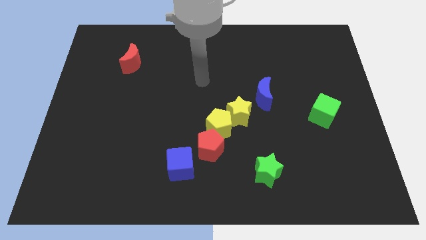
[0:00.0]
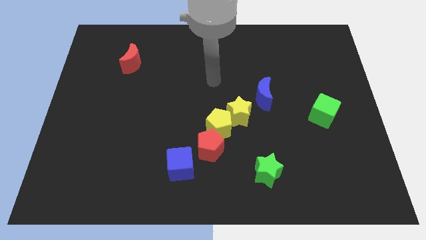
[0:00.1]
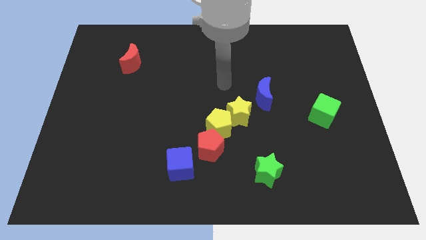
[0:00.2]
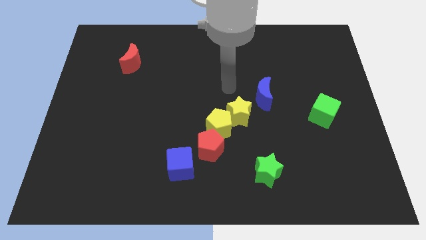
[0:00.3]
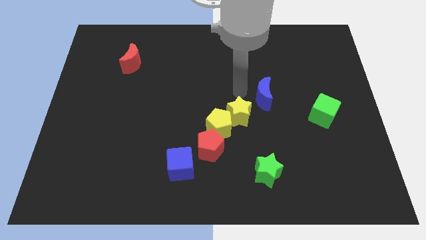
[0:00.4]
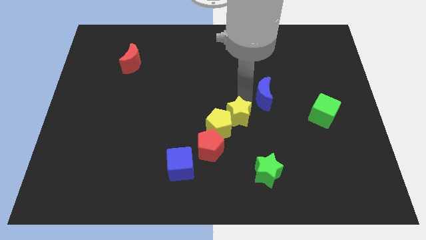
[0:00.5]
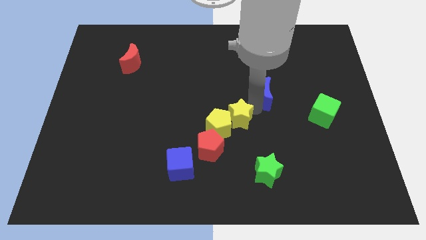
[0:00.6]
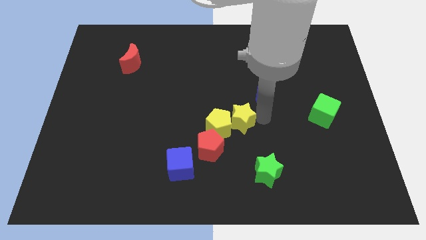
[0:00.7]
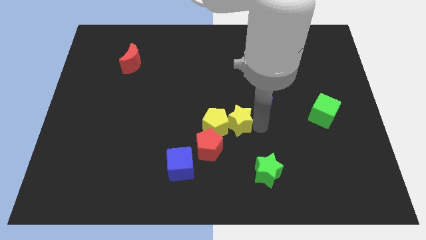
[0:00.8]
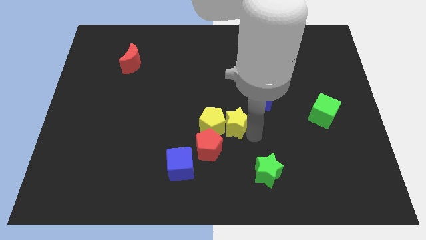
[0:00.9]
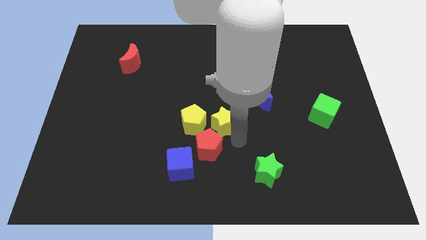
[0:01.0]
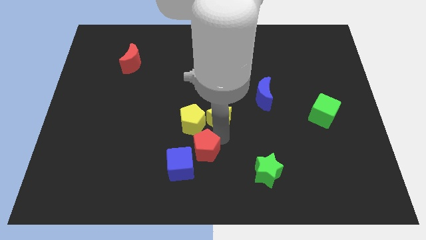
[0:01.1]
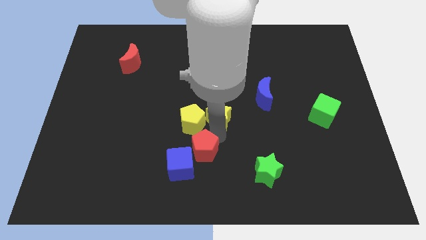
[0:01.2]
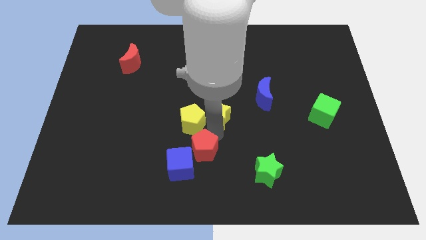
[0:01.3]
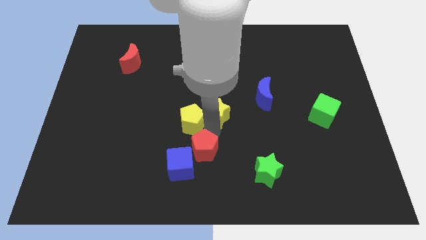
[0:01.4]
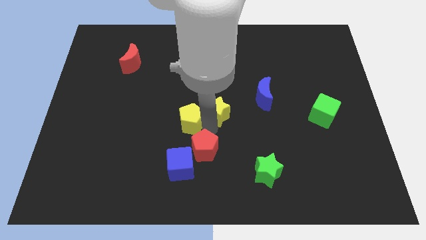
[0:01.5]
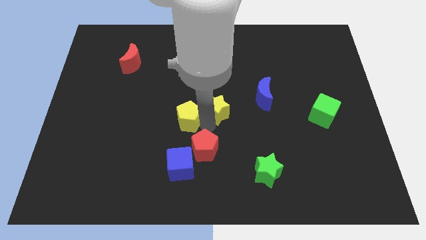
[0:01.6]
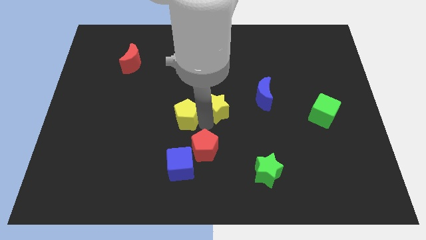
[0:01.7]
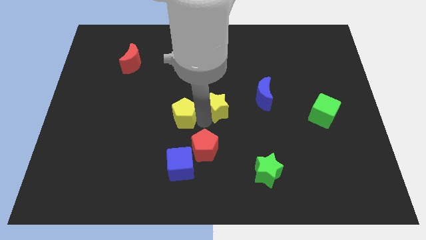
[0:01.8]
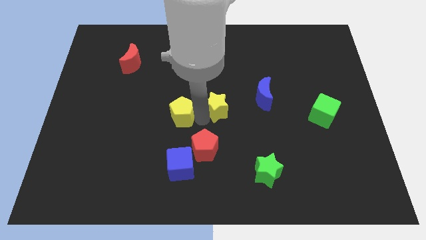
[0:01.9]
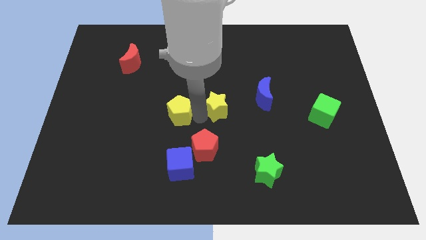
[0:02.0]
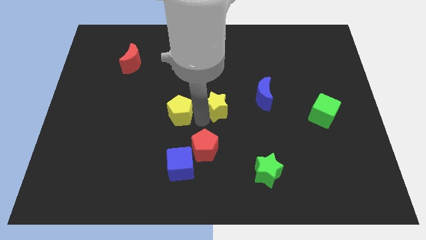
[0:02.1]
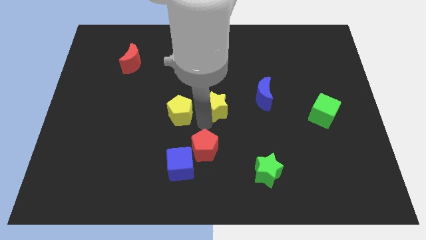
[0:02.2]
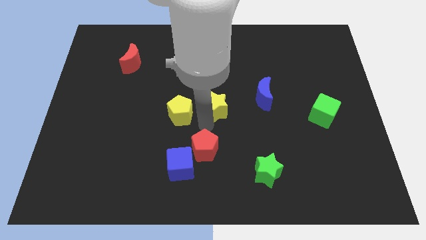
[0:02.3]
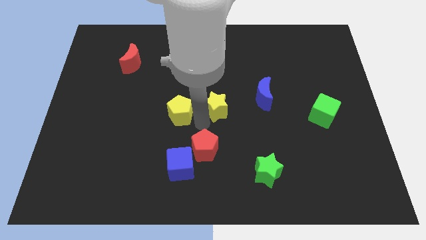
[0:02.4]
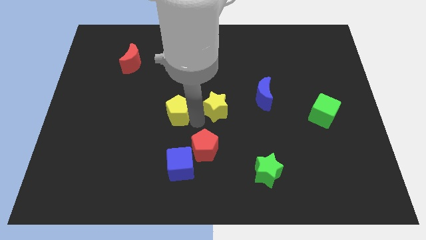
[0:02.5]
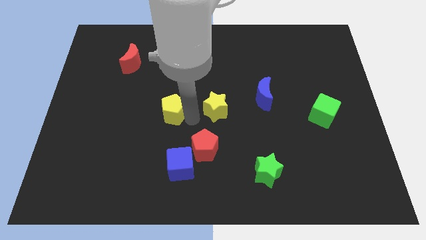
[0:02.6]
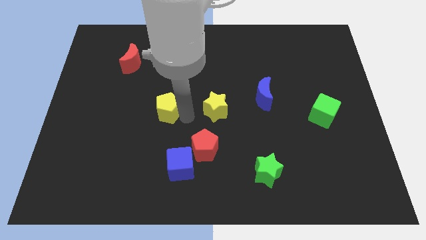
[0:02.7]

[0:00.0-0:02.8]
move the yellow pentagon away from the yellow star and red pentagon

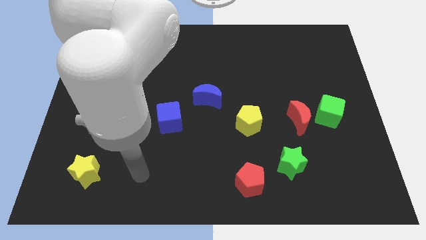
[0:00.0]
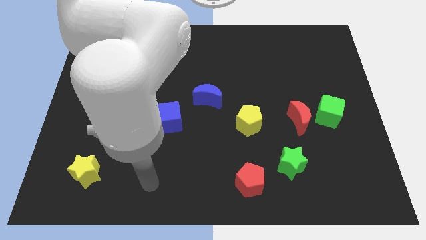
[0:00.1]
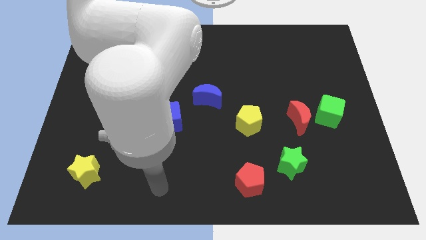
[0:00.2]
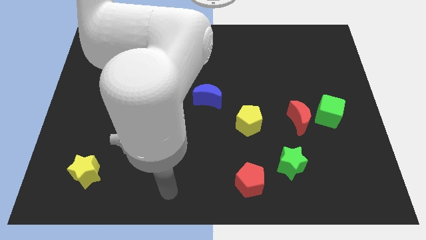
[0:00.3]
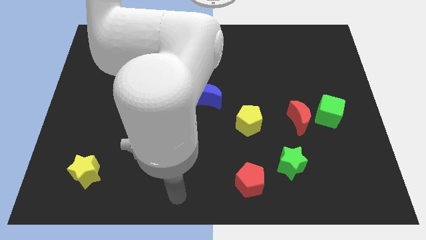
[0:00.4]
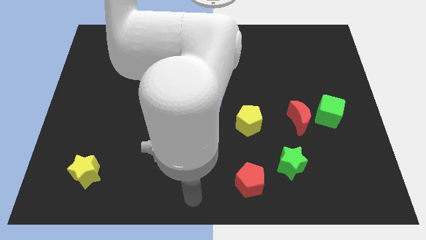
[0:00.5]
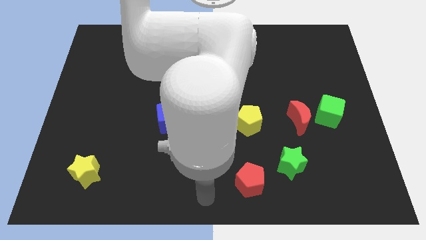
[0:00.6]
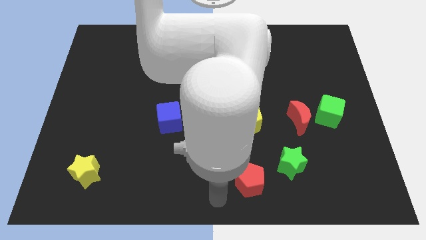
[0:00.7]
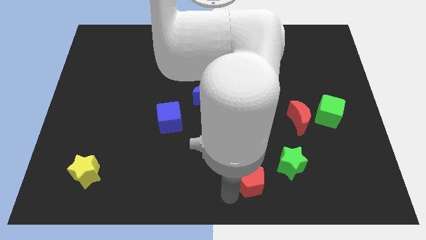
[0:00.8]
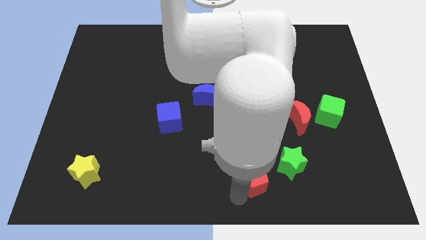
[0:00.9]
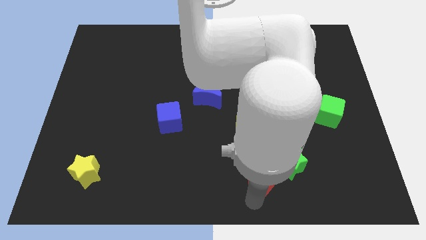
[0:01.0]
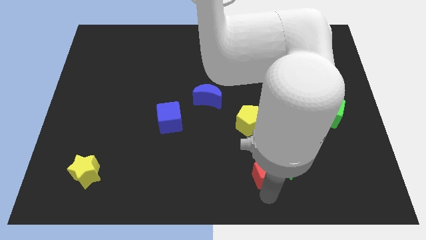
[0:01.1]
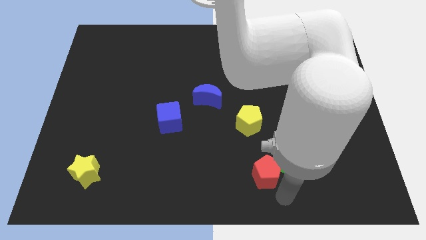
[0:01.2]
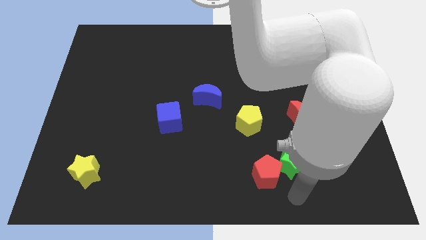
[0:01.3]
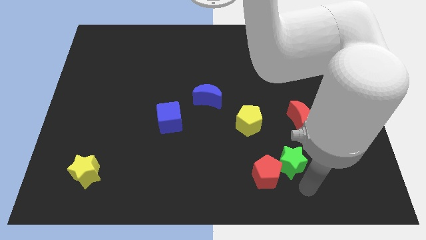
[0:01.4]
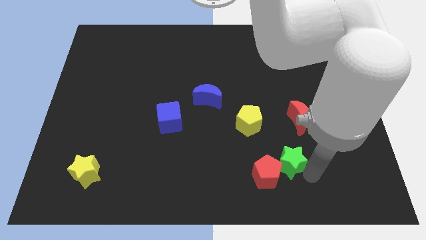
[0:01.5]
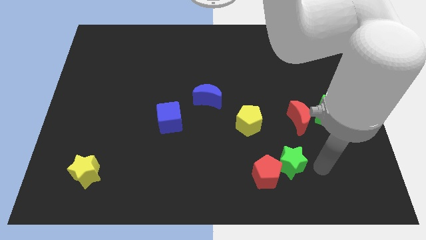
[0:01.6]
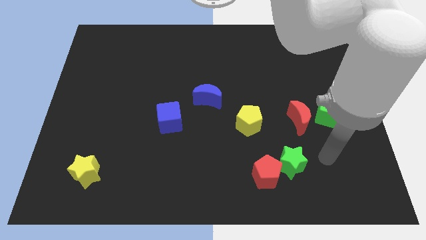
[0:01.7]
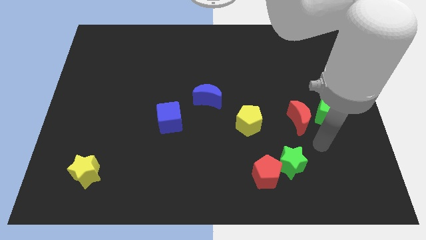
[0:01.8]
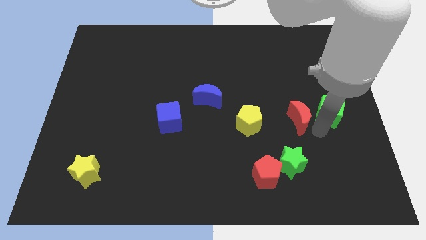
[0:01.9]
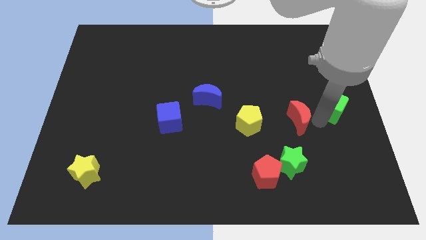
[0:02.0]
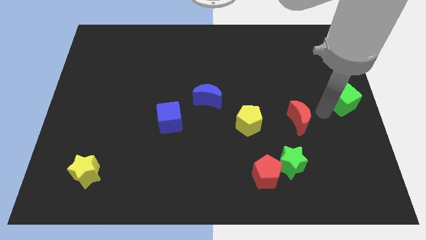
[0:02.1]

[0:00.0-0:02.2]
move the red moon away from the green cube

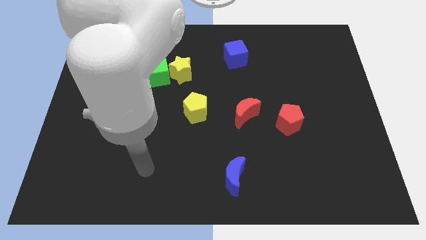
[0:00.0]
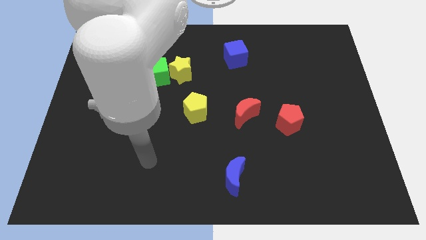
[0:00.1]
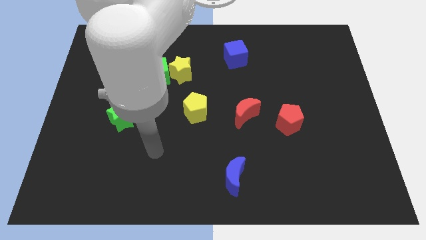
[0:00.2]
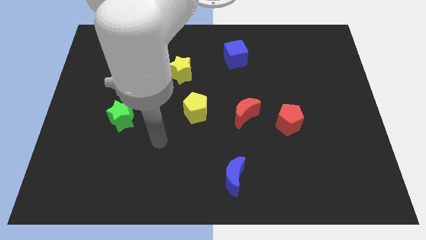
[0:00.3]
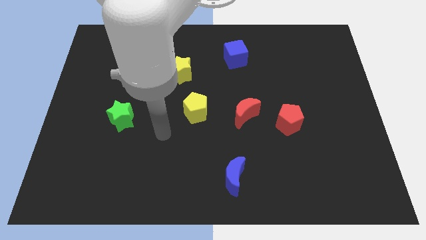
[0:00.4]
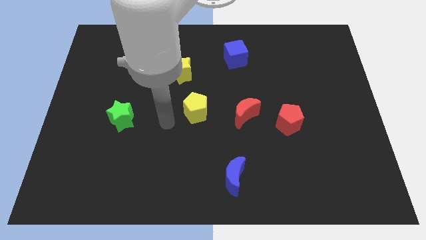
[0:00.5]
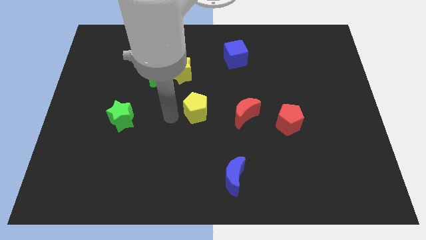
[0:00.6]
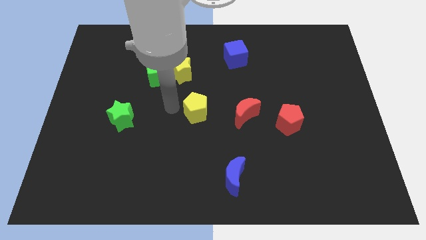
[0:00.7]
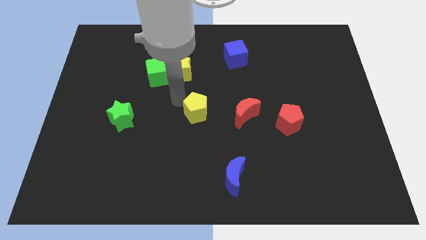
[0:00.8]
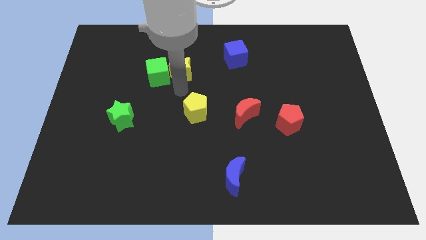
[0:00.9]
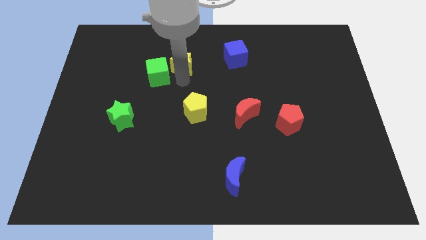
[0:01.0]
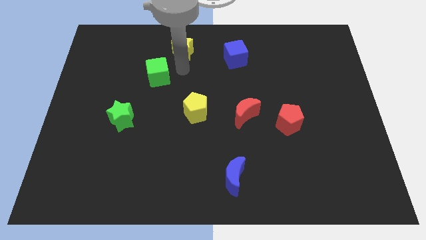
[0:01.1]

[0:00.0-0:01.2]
move the green cube away from the yellow star

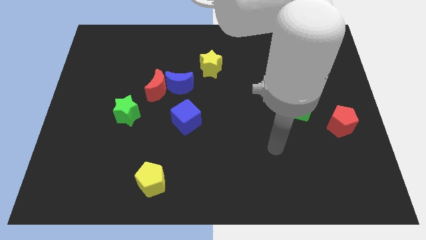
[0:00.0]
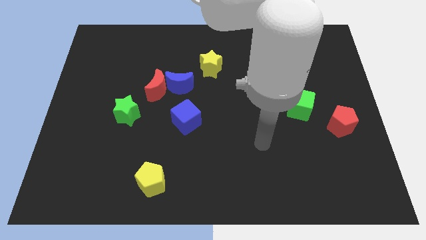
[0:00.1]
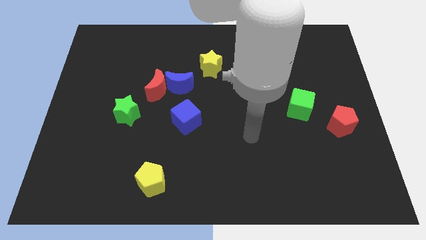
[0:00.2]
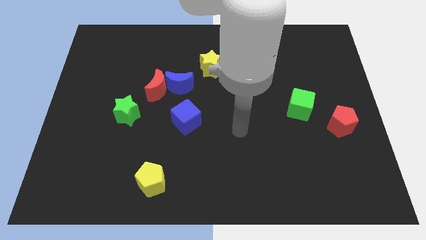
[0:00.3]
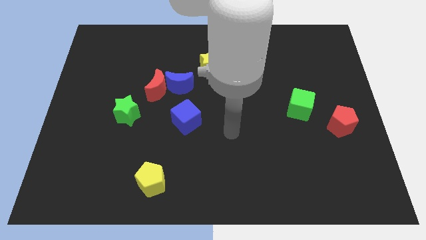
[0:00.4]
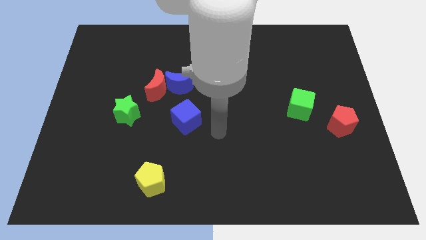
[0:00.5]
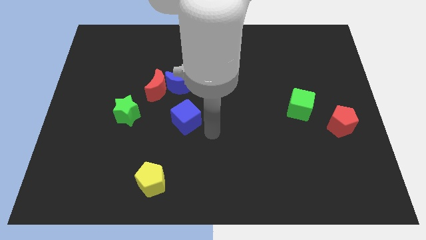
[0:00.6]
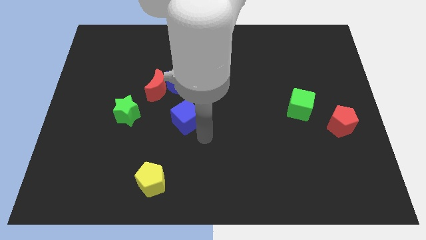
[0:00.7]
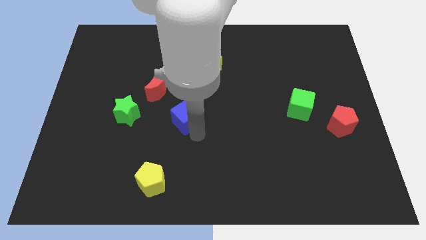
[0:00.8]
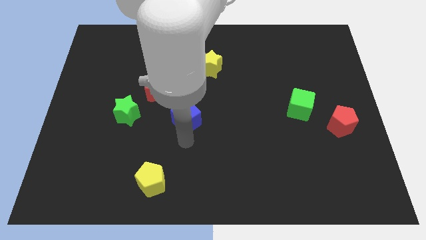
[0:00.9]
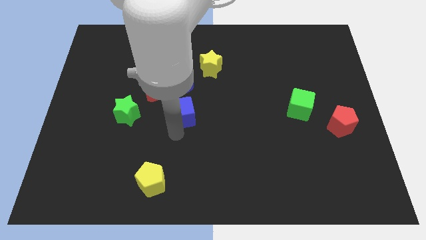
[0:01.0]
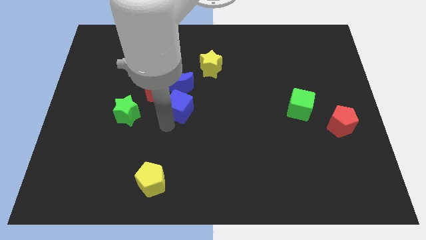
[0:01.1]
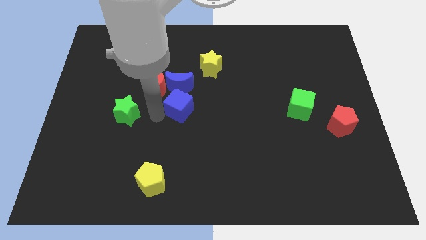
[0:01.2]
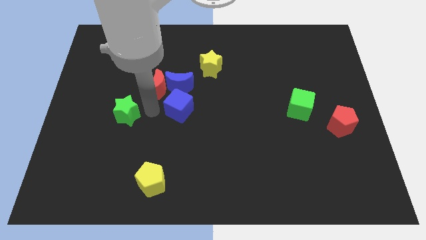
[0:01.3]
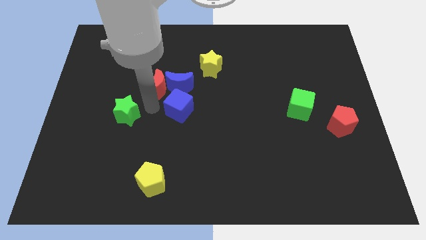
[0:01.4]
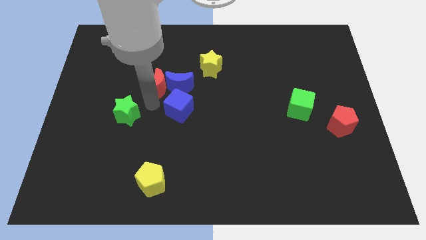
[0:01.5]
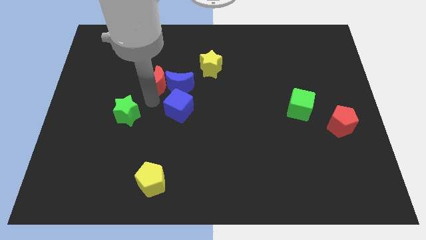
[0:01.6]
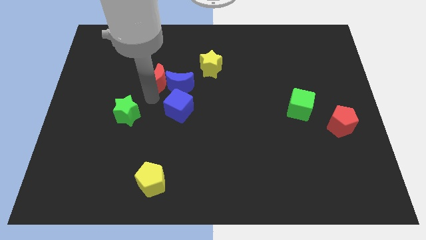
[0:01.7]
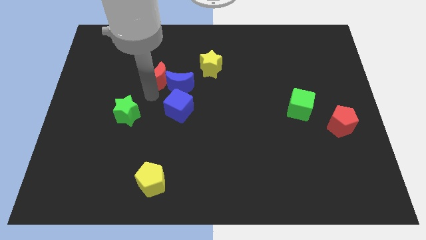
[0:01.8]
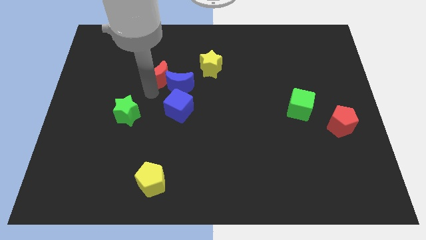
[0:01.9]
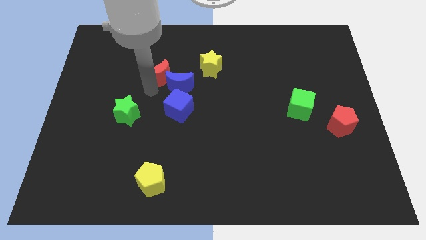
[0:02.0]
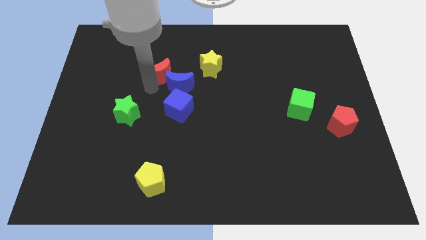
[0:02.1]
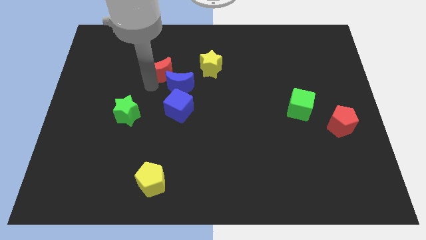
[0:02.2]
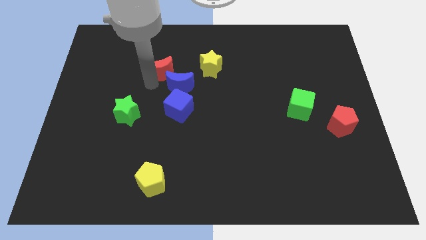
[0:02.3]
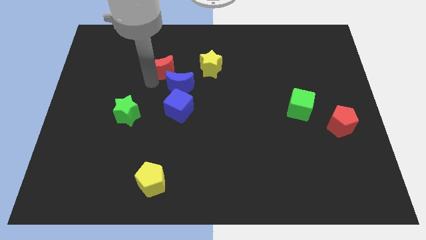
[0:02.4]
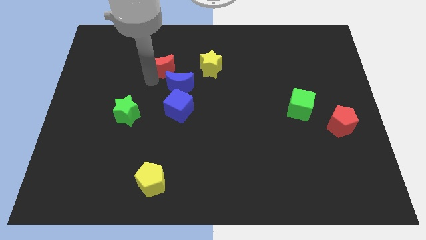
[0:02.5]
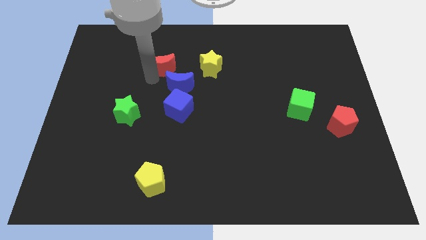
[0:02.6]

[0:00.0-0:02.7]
separate the red moon from the blue moon and green star

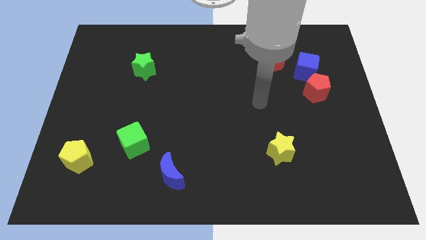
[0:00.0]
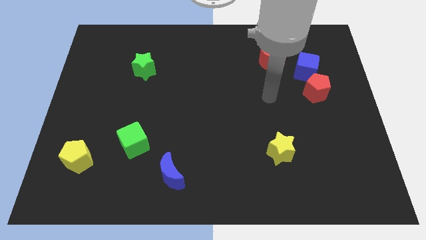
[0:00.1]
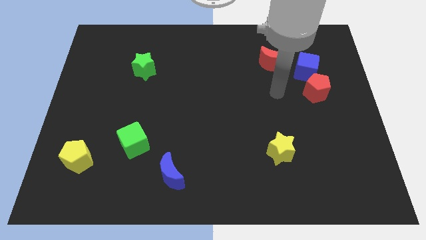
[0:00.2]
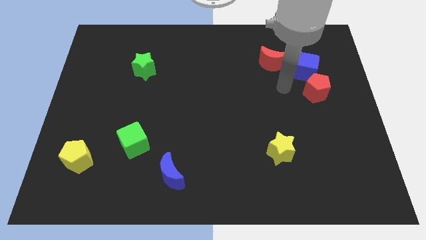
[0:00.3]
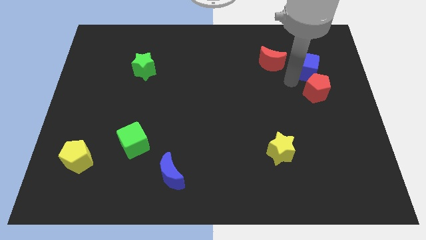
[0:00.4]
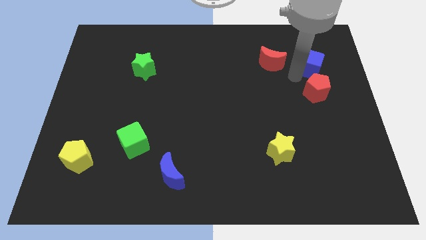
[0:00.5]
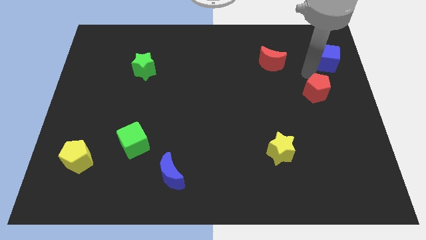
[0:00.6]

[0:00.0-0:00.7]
move the red pentagon away from the blue cube
